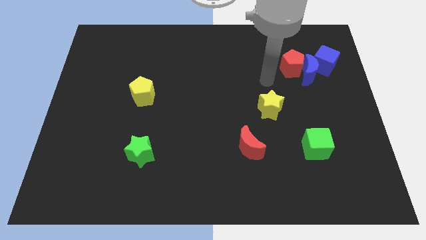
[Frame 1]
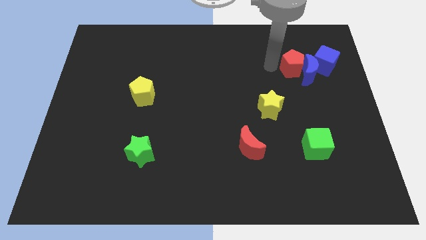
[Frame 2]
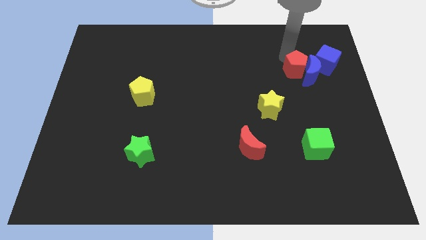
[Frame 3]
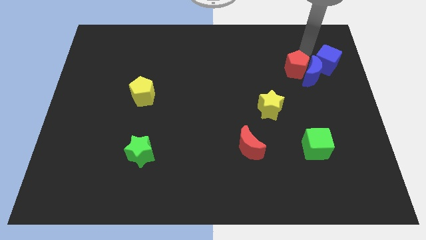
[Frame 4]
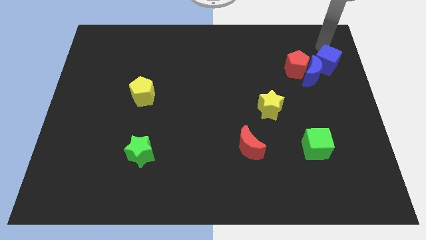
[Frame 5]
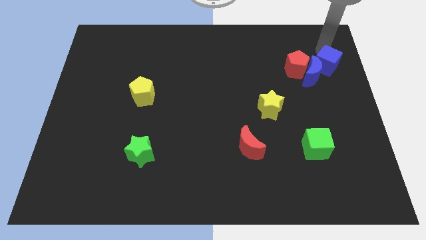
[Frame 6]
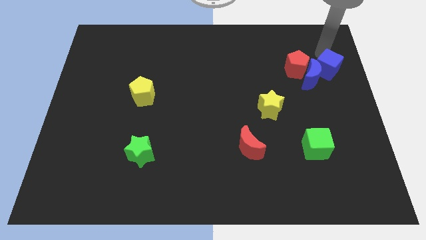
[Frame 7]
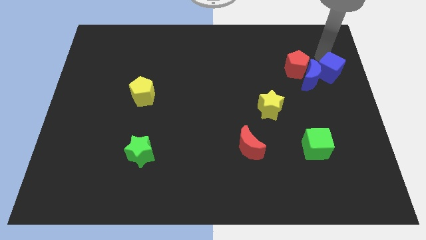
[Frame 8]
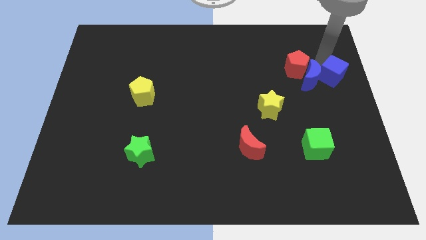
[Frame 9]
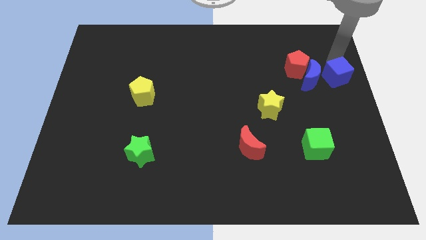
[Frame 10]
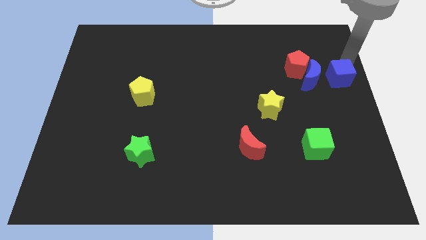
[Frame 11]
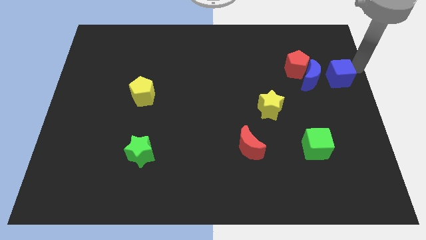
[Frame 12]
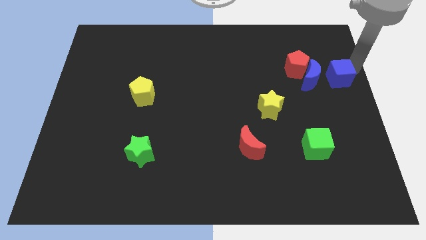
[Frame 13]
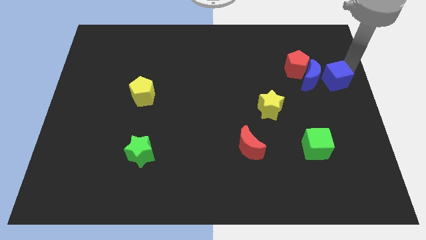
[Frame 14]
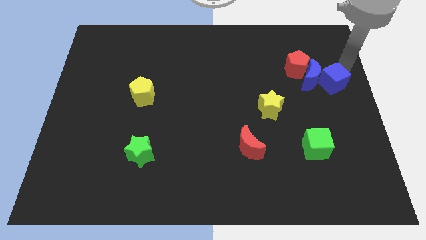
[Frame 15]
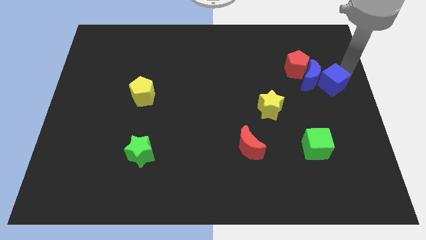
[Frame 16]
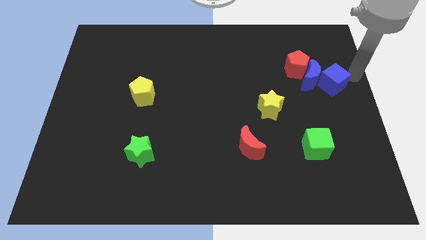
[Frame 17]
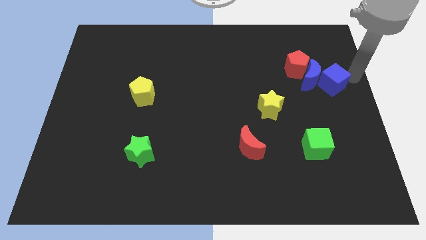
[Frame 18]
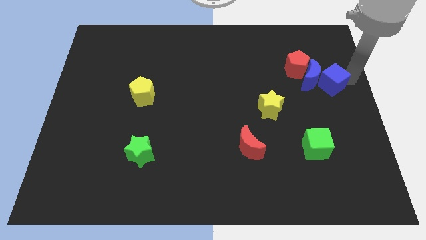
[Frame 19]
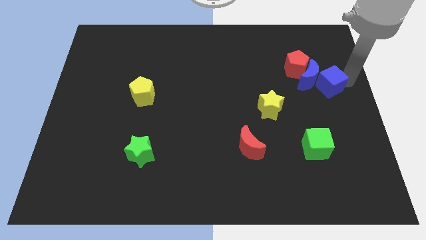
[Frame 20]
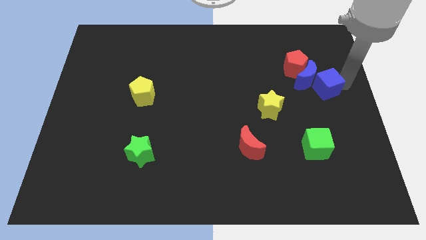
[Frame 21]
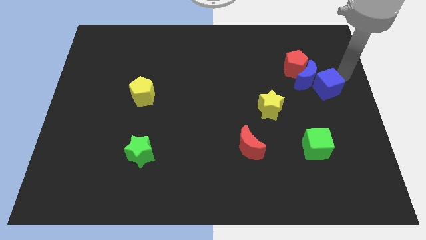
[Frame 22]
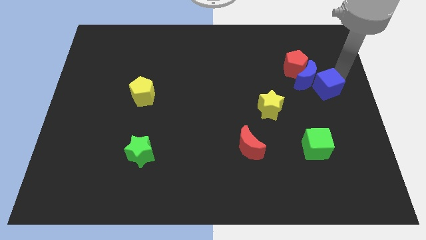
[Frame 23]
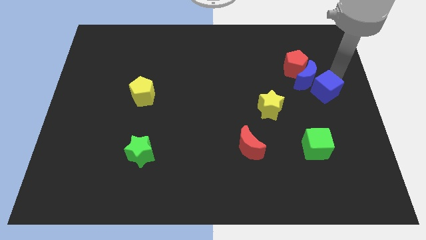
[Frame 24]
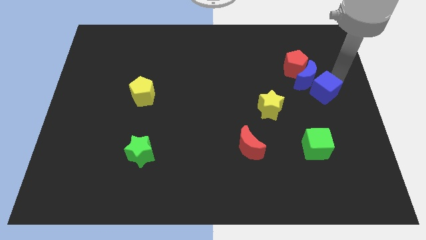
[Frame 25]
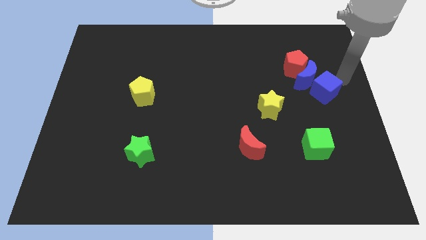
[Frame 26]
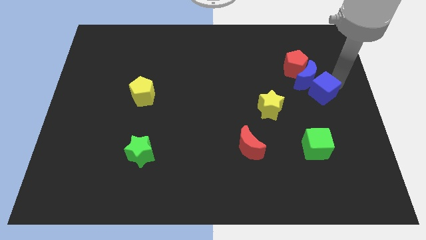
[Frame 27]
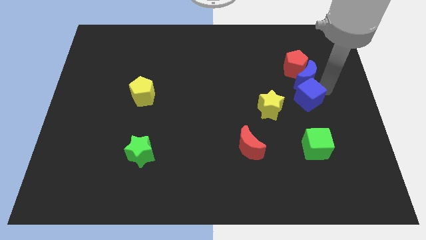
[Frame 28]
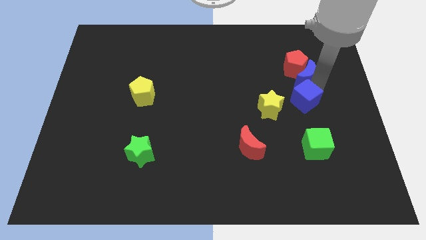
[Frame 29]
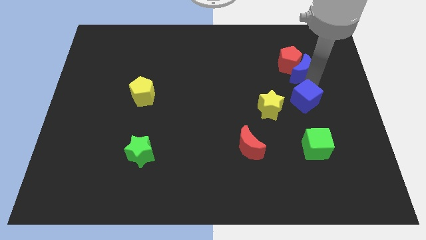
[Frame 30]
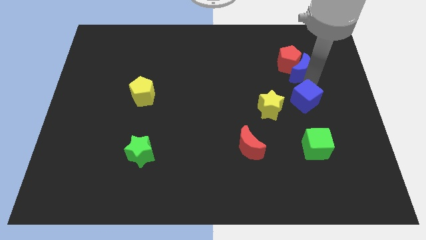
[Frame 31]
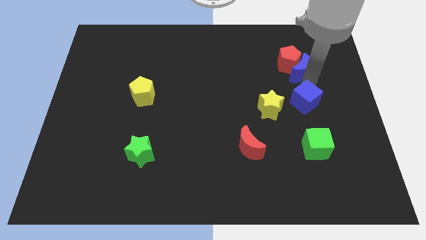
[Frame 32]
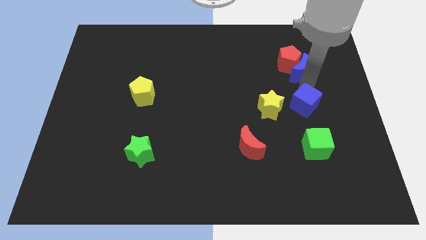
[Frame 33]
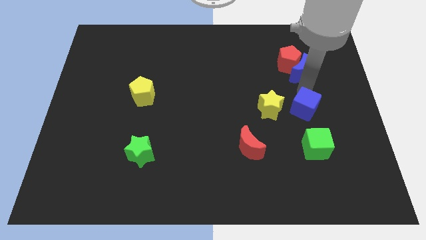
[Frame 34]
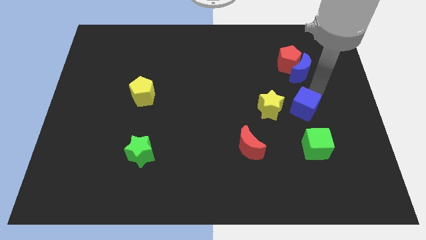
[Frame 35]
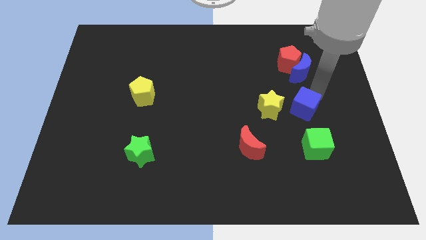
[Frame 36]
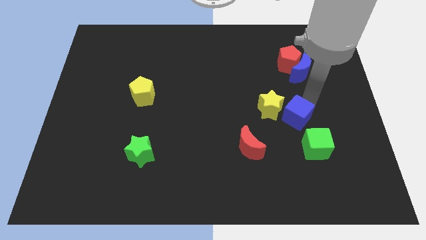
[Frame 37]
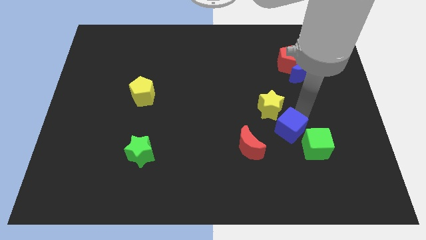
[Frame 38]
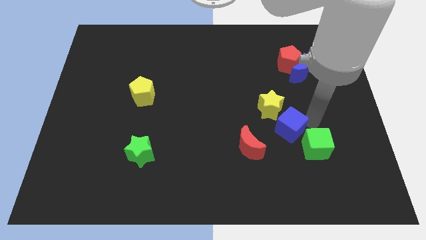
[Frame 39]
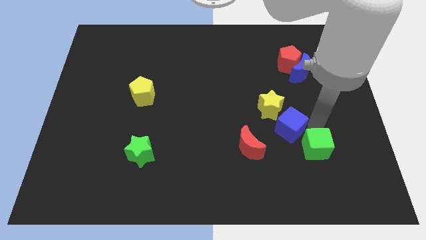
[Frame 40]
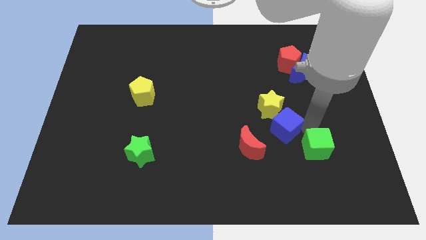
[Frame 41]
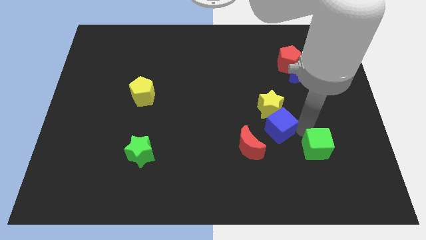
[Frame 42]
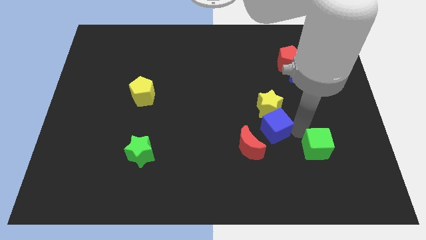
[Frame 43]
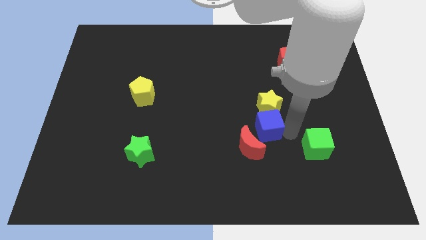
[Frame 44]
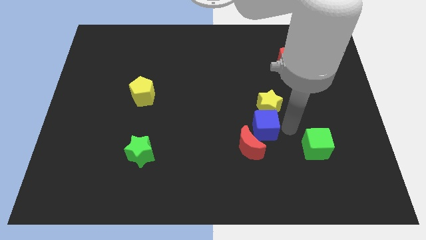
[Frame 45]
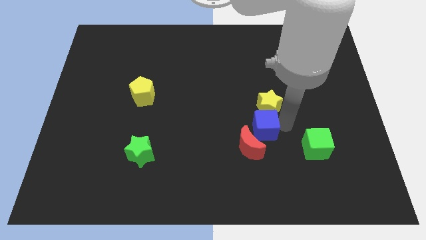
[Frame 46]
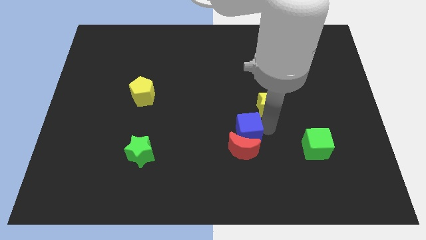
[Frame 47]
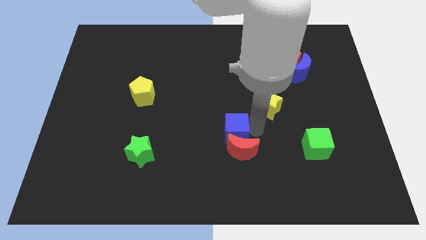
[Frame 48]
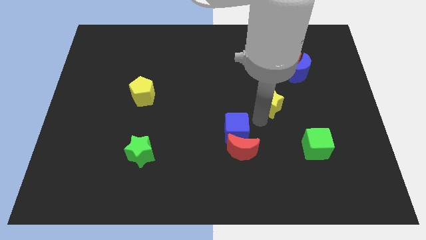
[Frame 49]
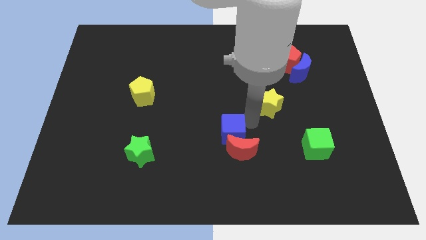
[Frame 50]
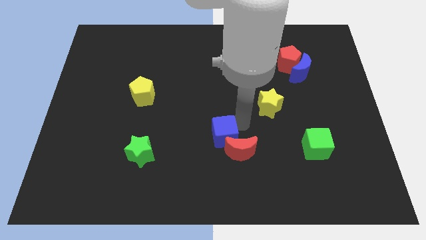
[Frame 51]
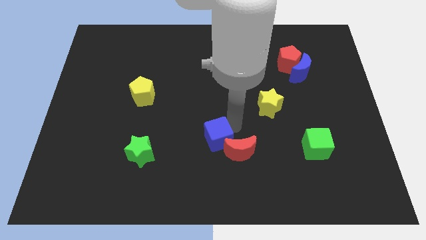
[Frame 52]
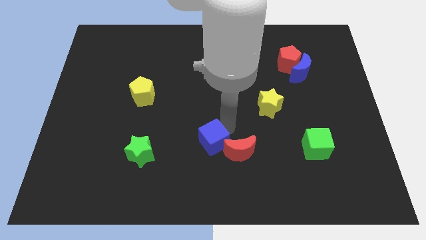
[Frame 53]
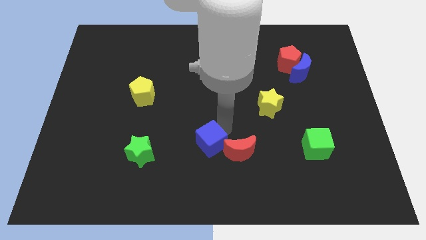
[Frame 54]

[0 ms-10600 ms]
move the blue cube right of the green star
